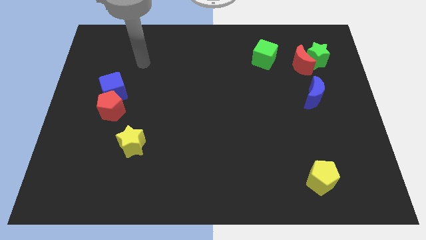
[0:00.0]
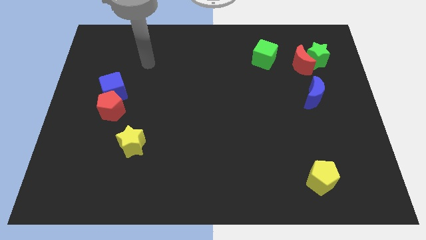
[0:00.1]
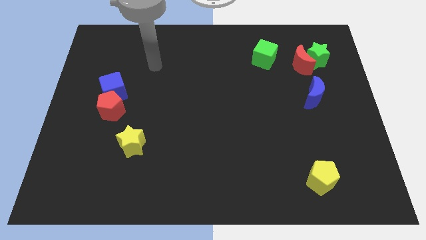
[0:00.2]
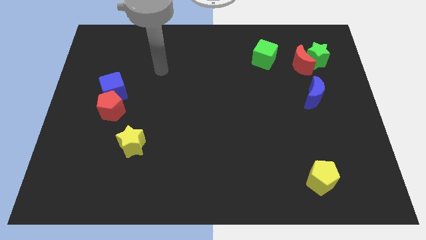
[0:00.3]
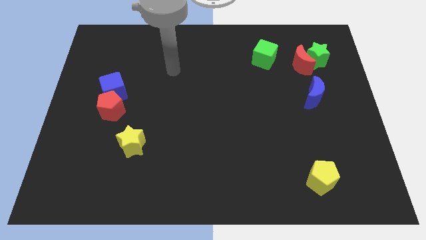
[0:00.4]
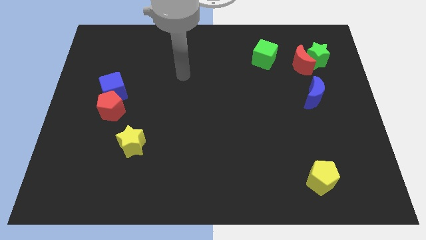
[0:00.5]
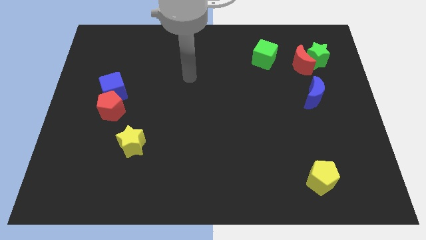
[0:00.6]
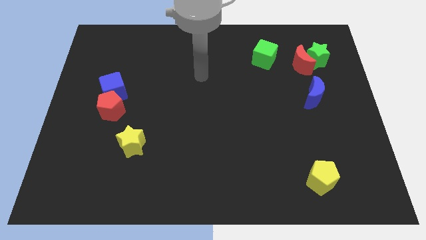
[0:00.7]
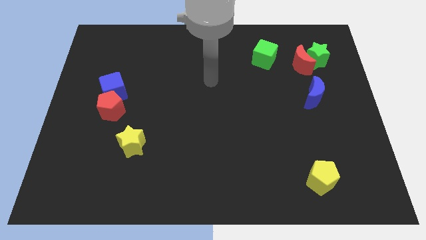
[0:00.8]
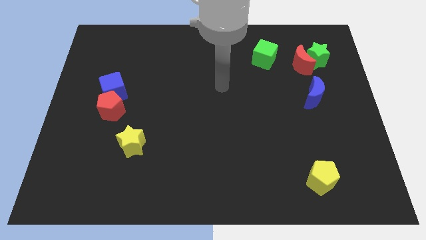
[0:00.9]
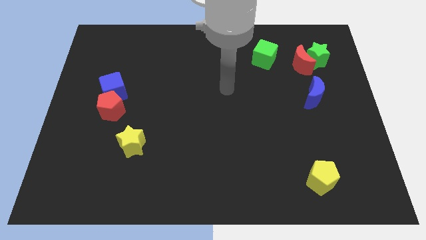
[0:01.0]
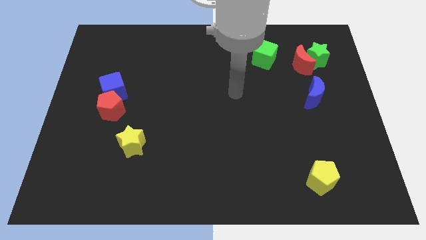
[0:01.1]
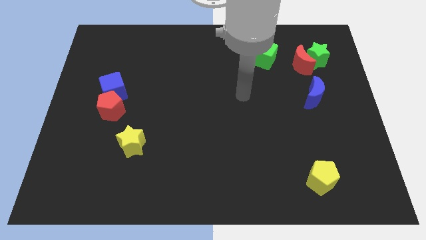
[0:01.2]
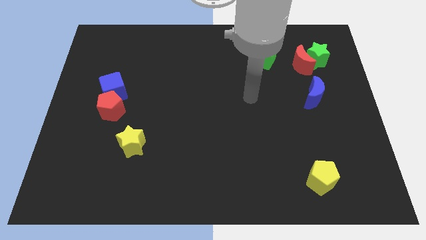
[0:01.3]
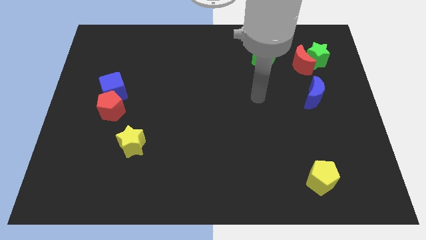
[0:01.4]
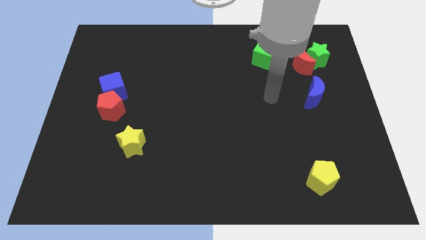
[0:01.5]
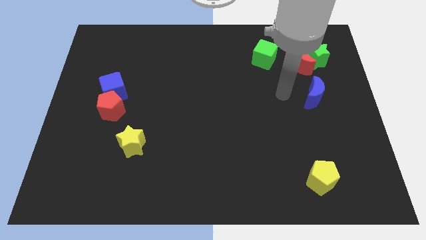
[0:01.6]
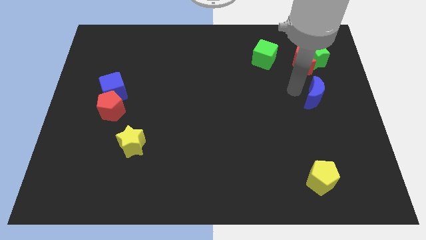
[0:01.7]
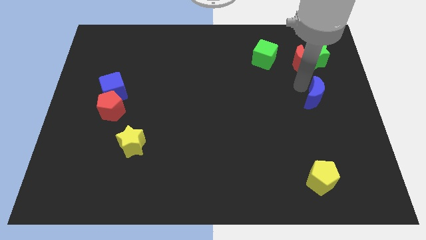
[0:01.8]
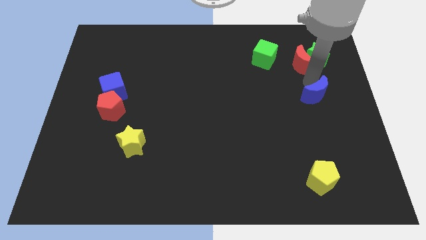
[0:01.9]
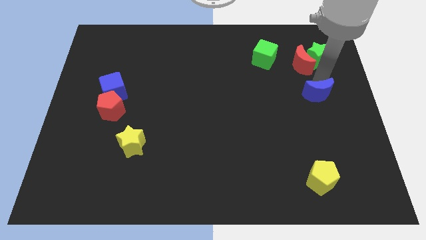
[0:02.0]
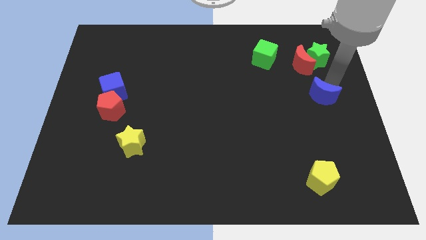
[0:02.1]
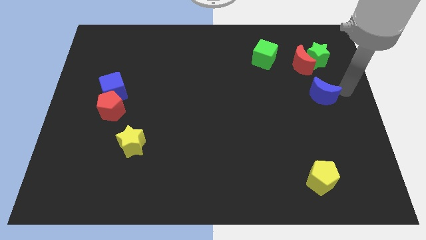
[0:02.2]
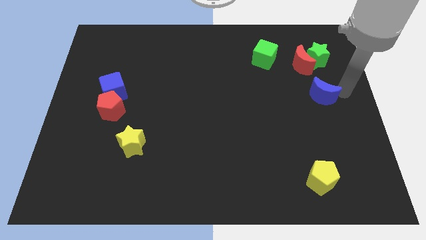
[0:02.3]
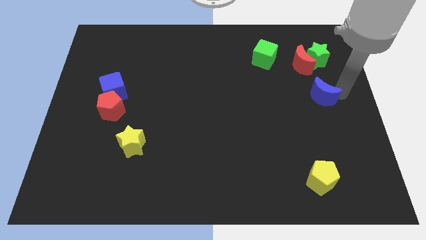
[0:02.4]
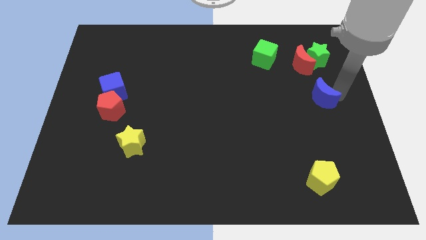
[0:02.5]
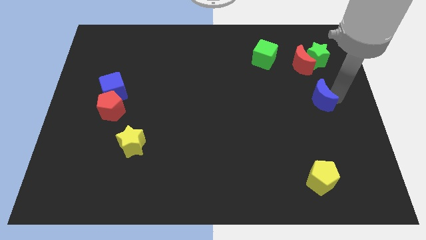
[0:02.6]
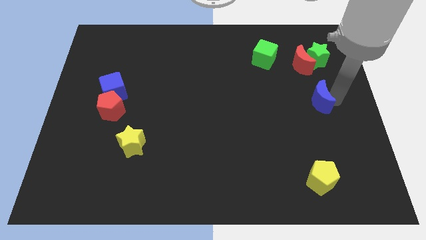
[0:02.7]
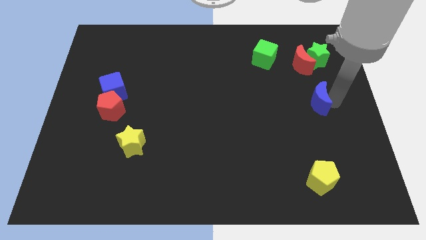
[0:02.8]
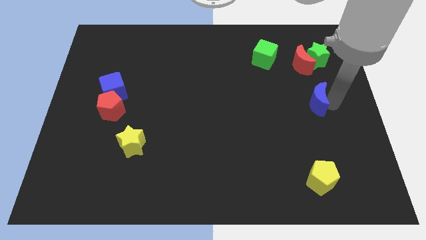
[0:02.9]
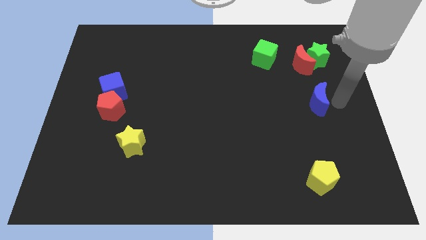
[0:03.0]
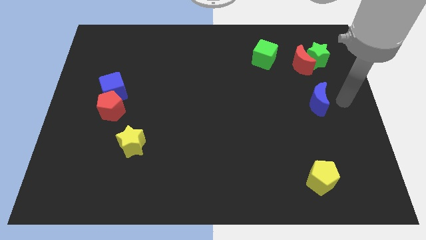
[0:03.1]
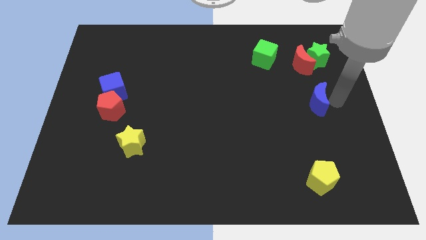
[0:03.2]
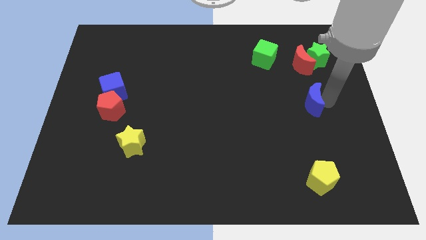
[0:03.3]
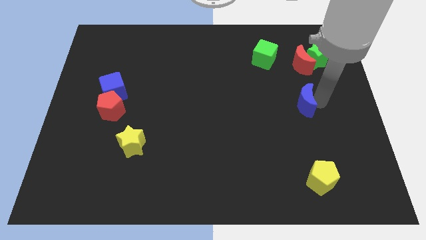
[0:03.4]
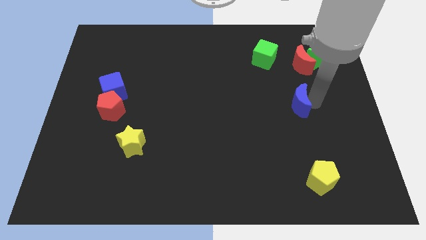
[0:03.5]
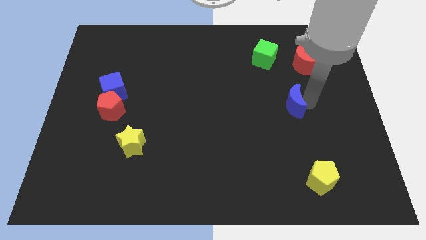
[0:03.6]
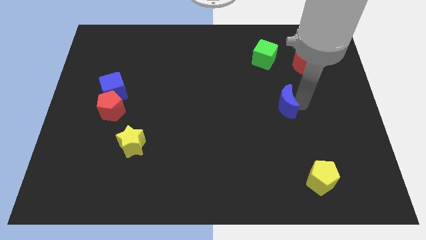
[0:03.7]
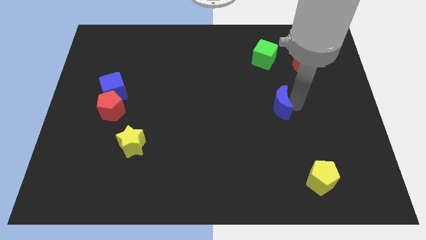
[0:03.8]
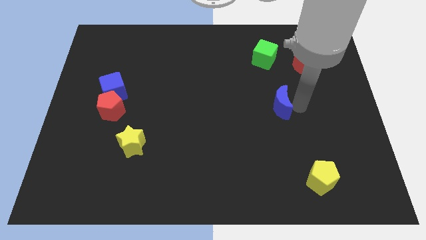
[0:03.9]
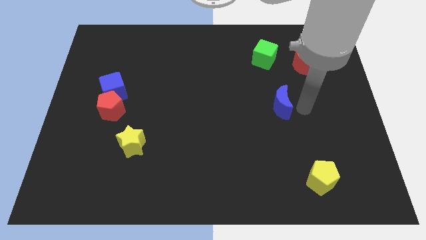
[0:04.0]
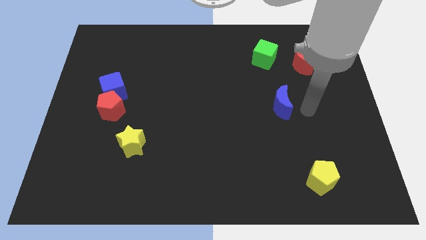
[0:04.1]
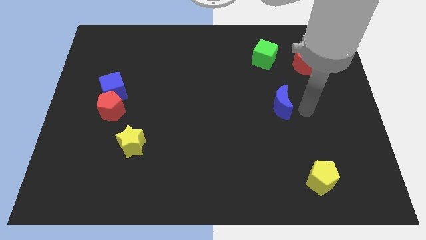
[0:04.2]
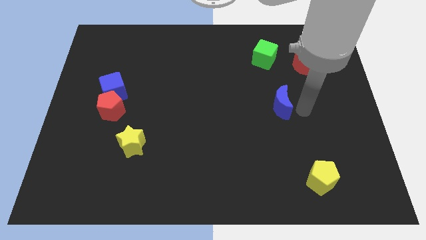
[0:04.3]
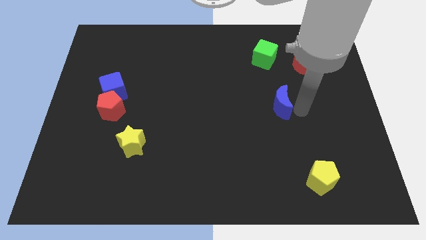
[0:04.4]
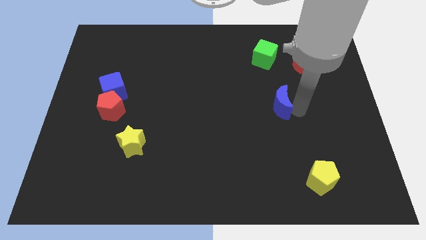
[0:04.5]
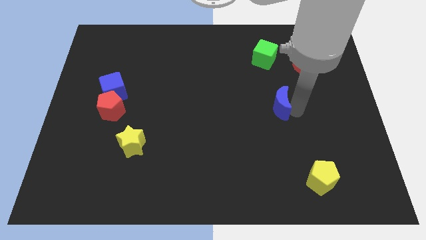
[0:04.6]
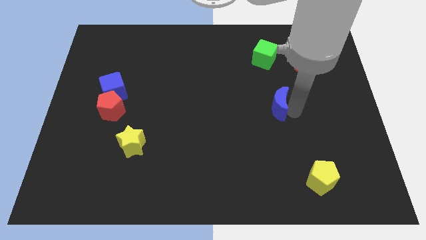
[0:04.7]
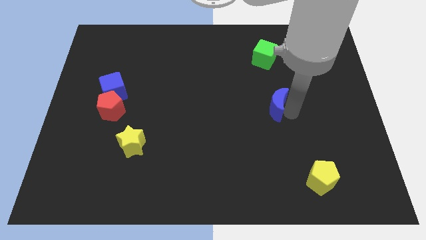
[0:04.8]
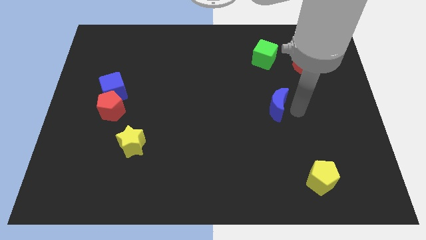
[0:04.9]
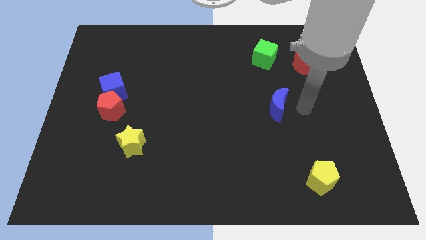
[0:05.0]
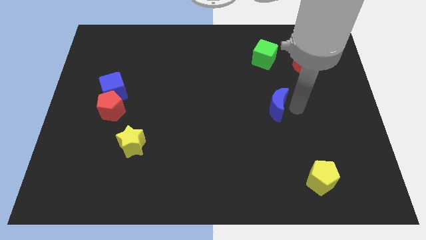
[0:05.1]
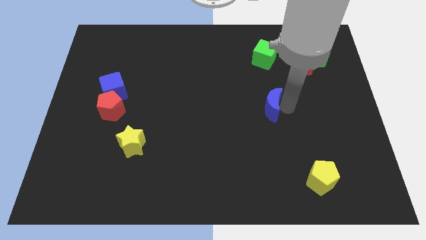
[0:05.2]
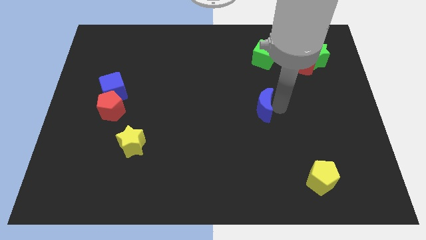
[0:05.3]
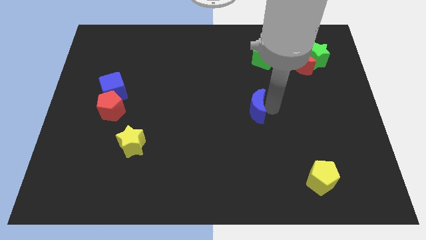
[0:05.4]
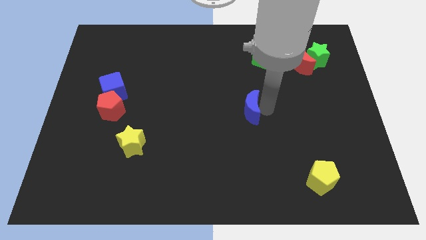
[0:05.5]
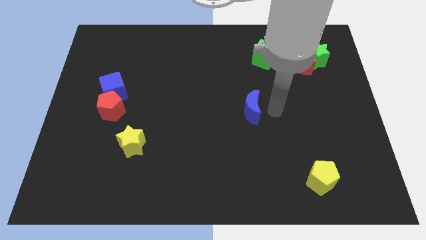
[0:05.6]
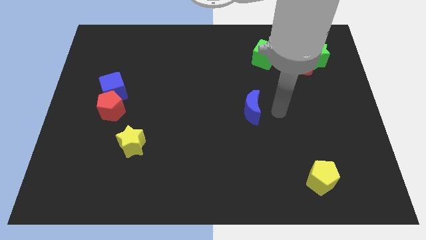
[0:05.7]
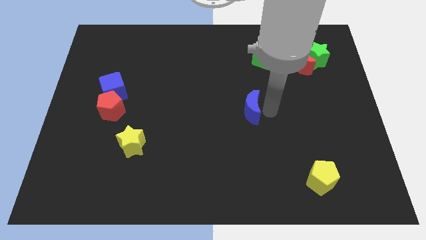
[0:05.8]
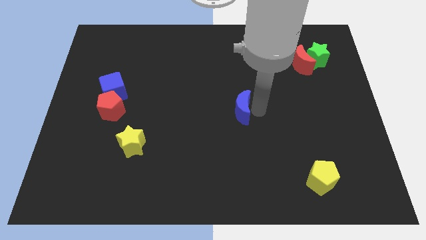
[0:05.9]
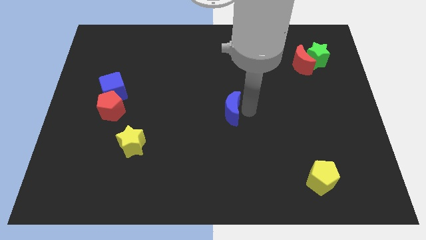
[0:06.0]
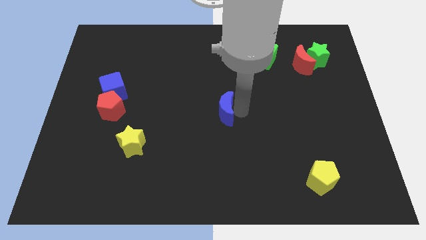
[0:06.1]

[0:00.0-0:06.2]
push the blue moon left

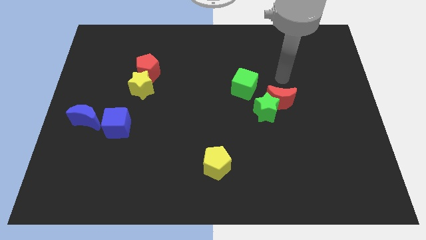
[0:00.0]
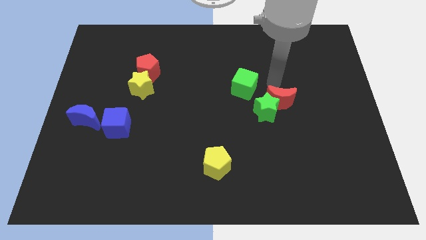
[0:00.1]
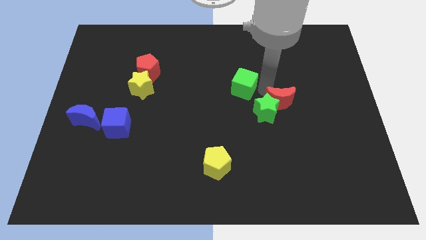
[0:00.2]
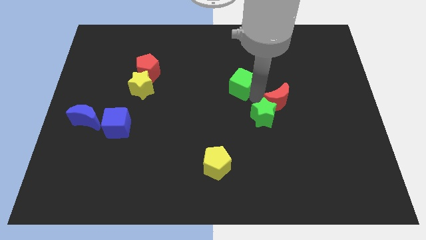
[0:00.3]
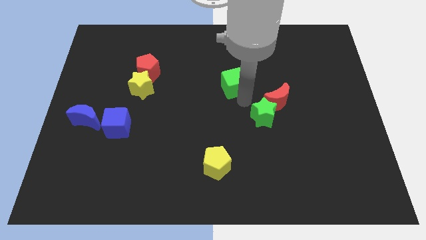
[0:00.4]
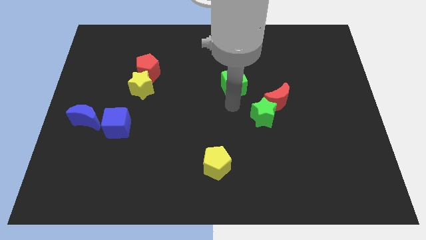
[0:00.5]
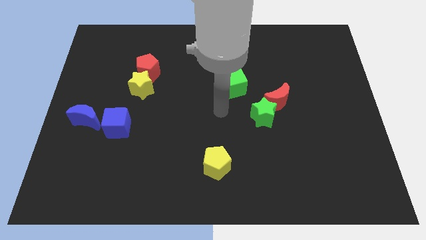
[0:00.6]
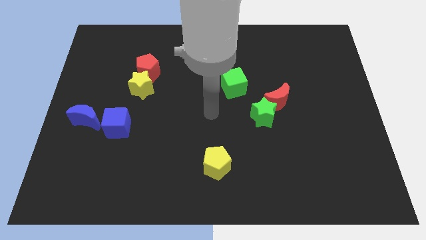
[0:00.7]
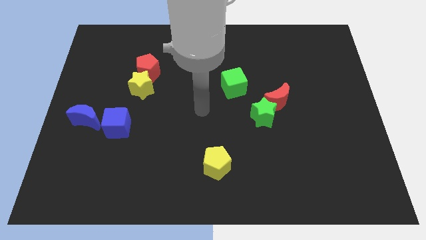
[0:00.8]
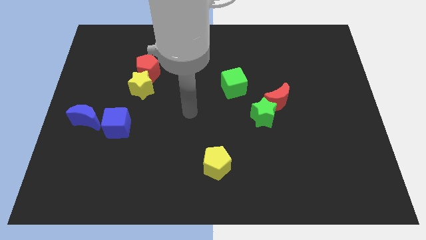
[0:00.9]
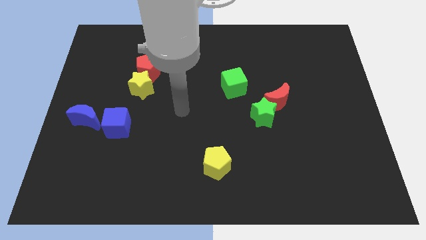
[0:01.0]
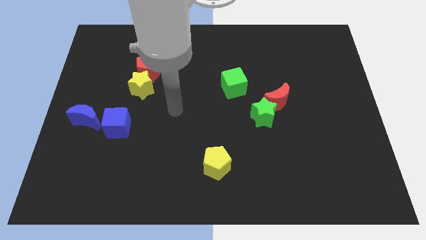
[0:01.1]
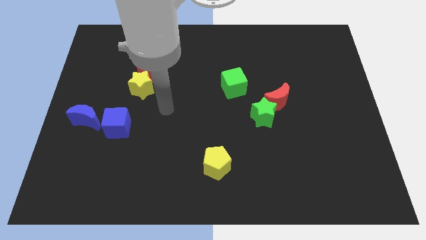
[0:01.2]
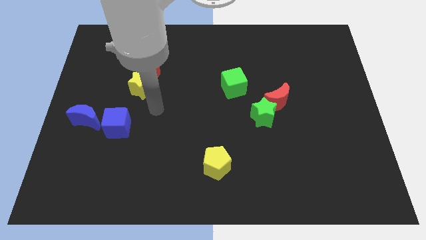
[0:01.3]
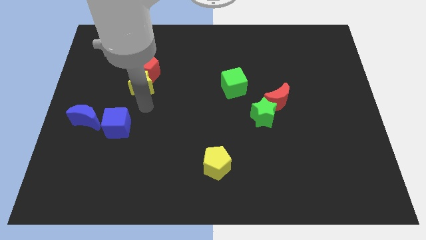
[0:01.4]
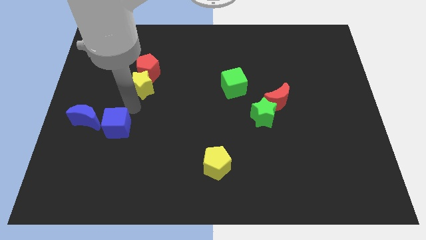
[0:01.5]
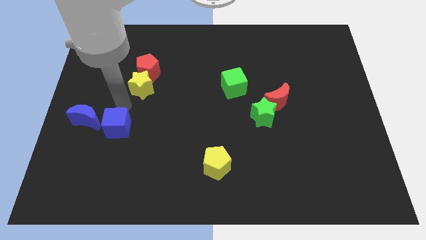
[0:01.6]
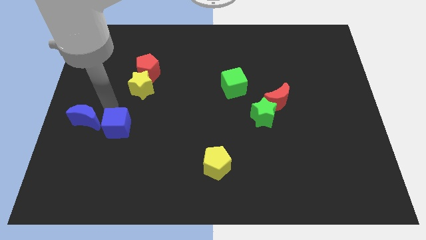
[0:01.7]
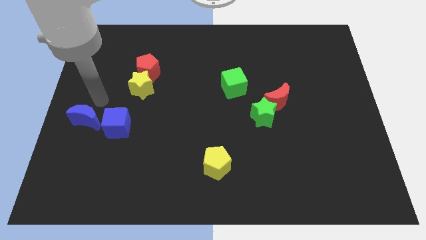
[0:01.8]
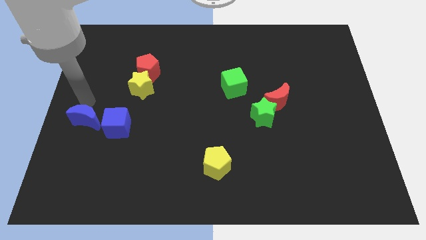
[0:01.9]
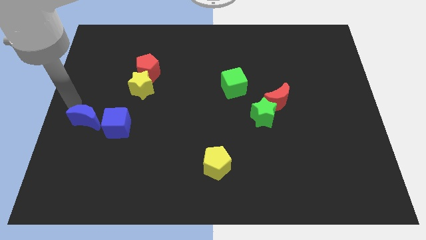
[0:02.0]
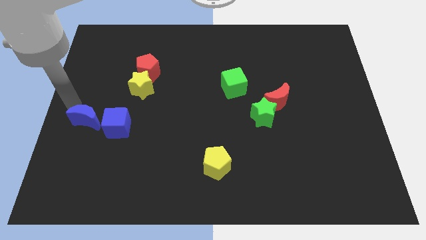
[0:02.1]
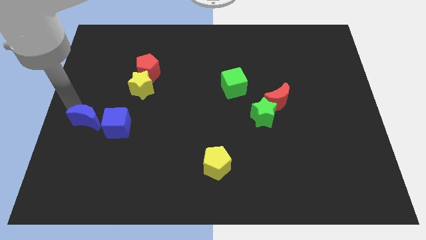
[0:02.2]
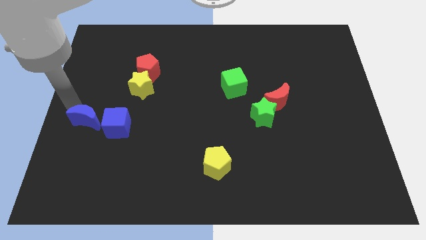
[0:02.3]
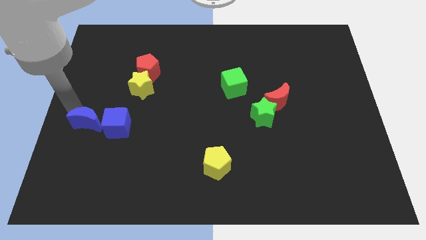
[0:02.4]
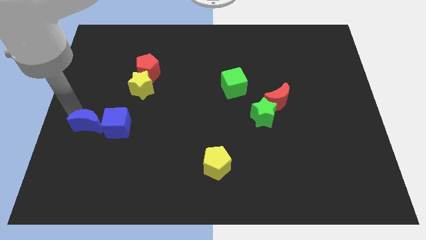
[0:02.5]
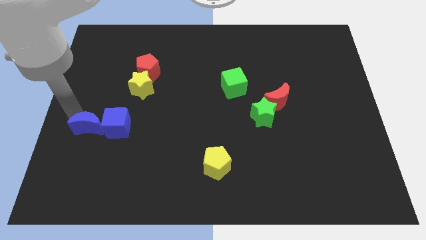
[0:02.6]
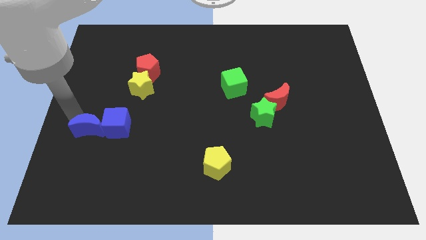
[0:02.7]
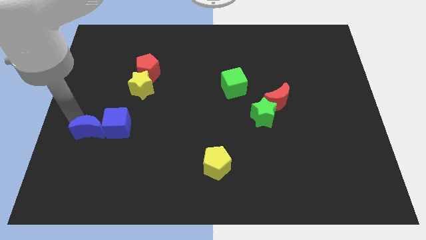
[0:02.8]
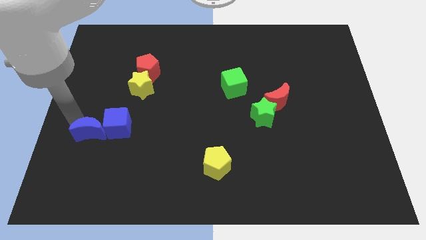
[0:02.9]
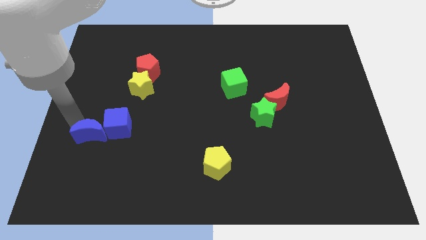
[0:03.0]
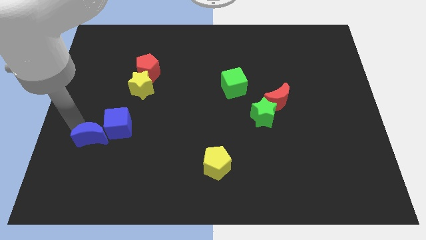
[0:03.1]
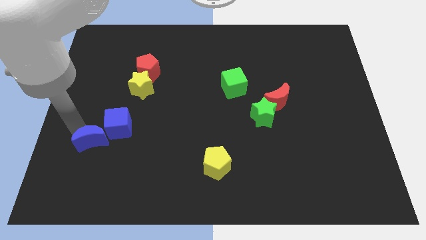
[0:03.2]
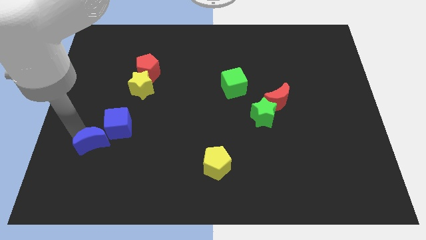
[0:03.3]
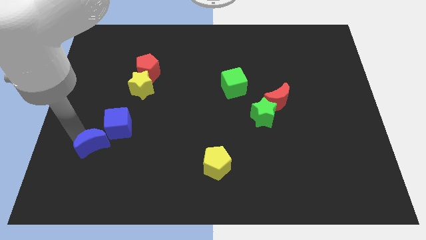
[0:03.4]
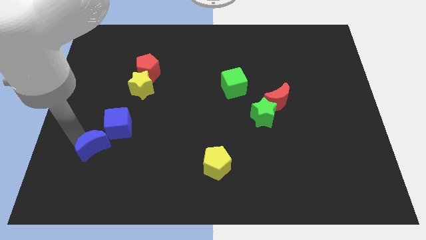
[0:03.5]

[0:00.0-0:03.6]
move the blue moon downwards and to the right a bit
